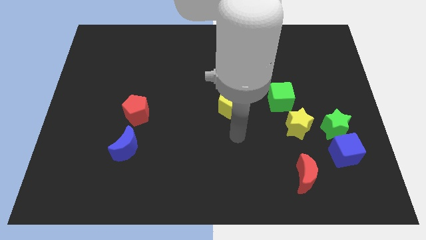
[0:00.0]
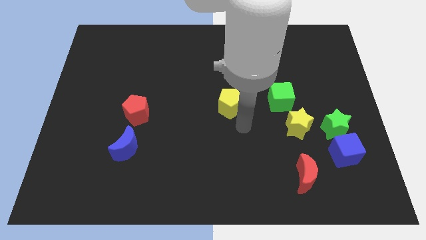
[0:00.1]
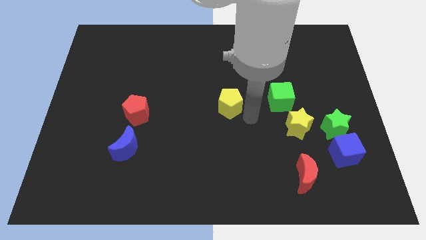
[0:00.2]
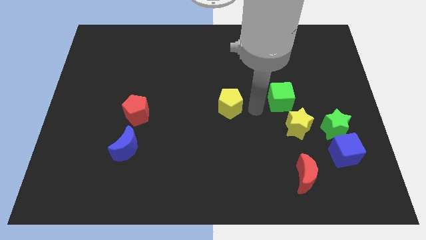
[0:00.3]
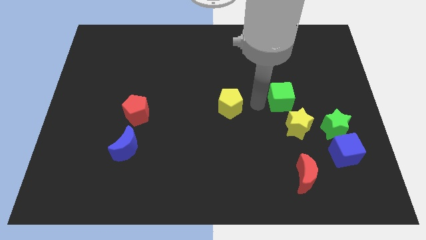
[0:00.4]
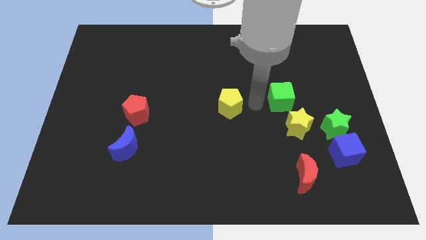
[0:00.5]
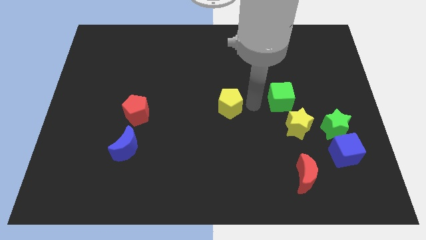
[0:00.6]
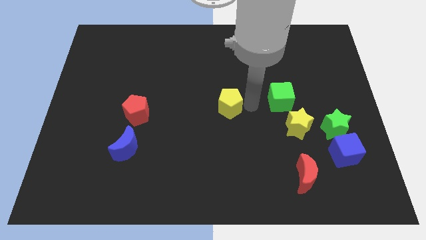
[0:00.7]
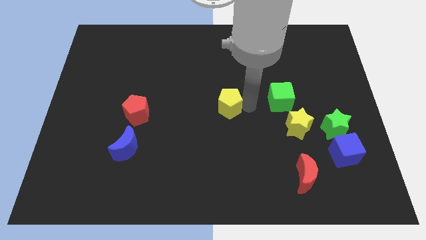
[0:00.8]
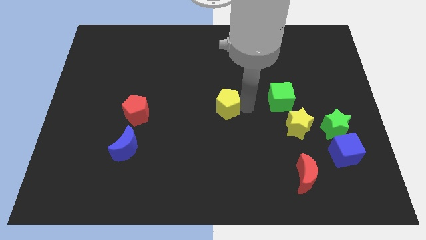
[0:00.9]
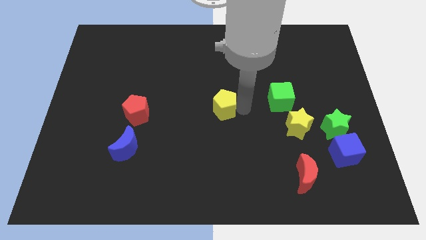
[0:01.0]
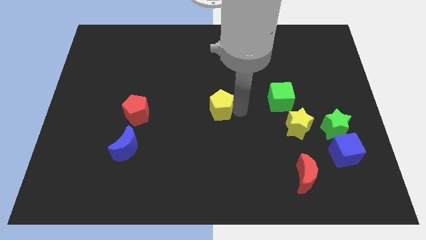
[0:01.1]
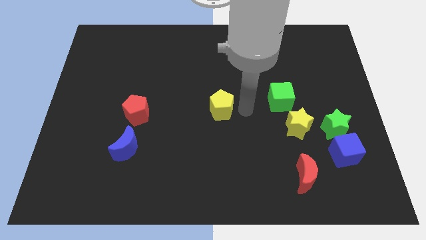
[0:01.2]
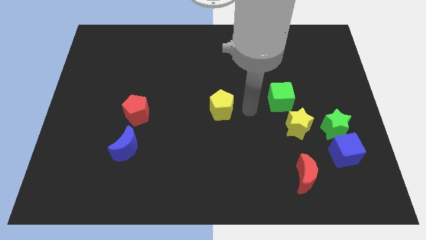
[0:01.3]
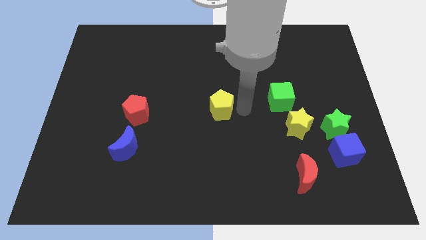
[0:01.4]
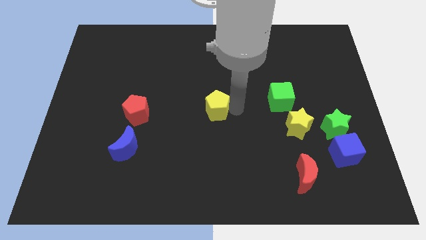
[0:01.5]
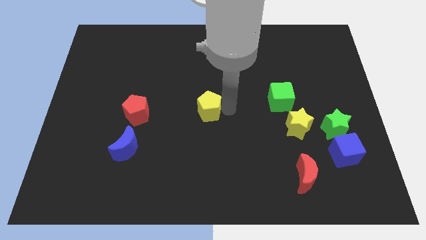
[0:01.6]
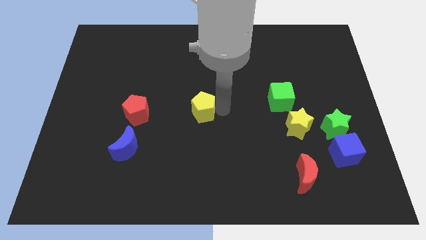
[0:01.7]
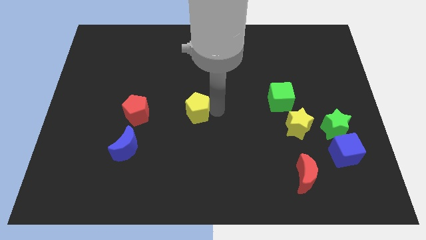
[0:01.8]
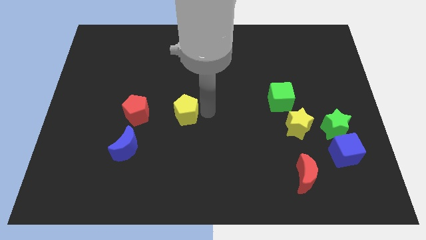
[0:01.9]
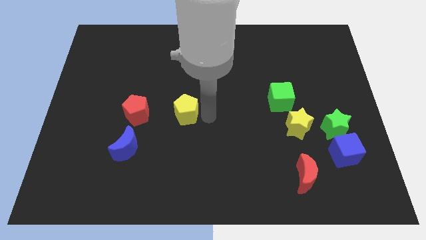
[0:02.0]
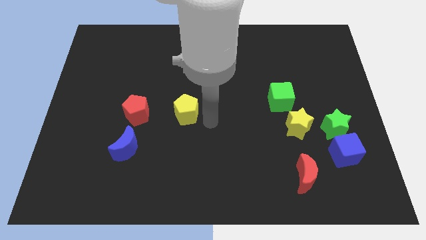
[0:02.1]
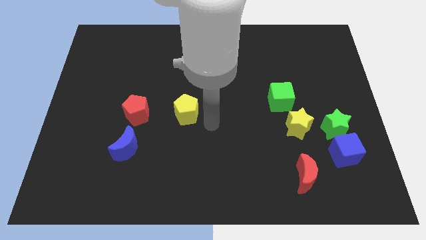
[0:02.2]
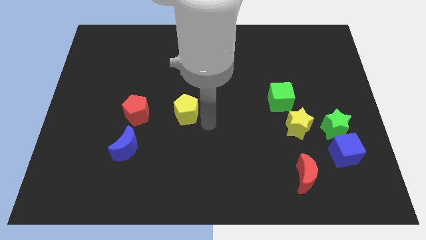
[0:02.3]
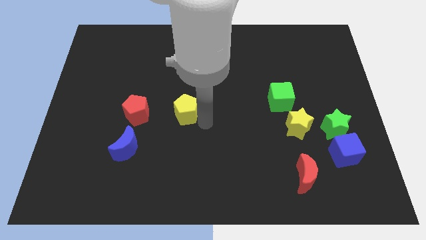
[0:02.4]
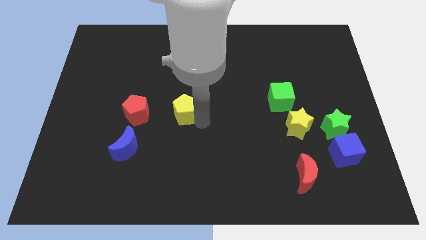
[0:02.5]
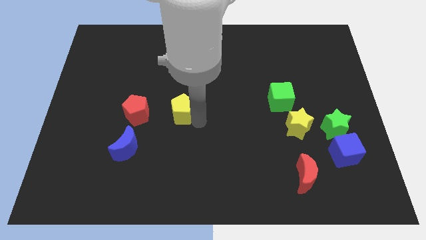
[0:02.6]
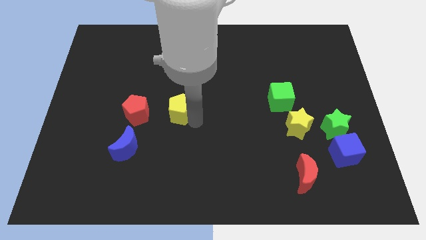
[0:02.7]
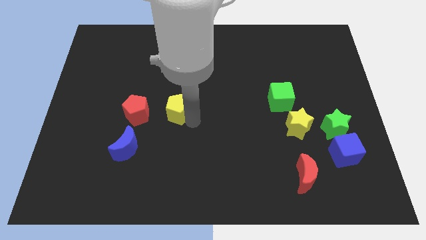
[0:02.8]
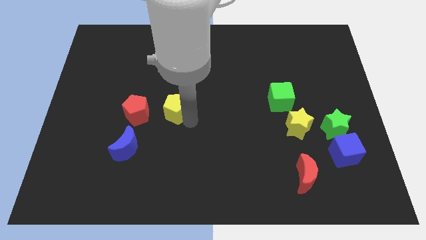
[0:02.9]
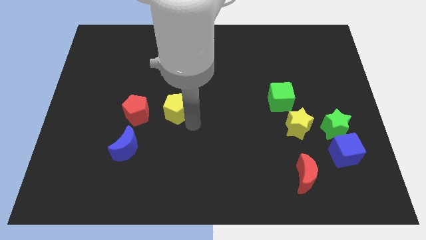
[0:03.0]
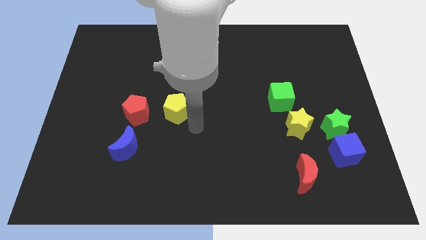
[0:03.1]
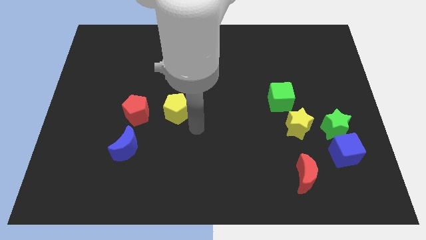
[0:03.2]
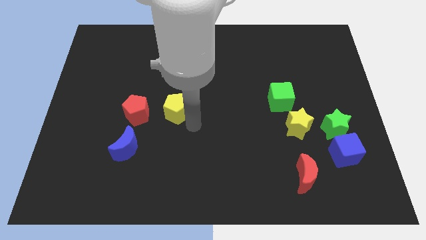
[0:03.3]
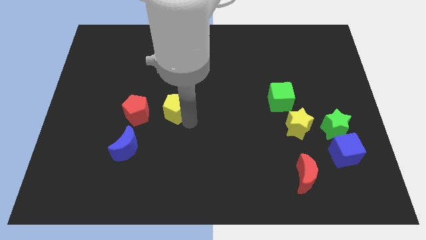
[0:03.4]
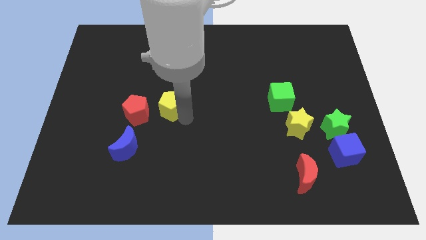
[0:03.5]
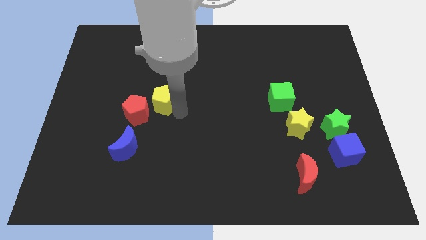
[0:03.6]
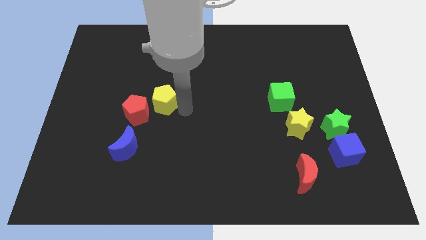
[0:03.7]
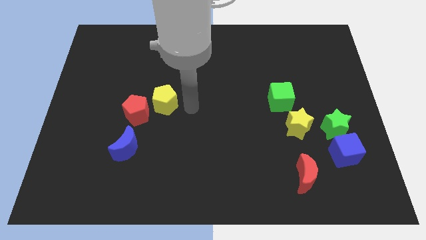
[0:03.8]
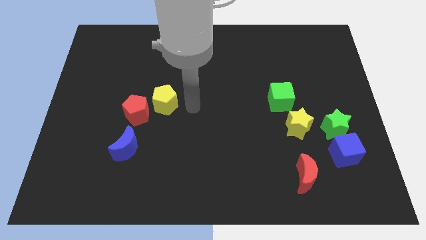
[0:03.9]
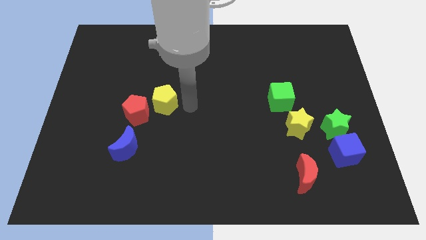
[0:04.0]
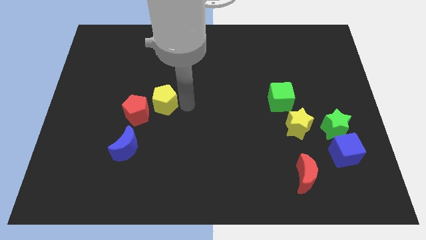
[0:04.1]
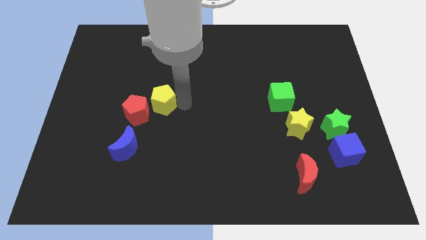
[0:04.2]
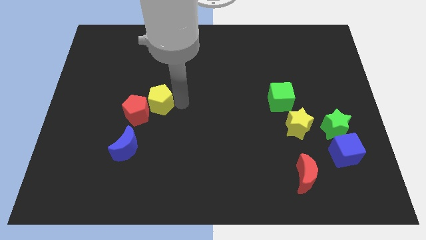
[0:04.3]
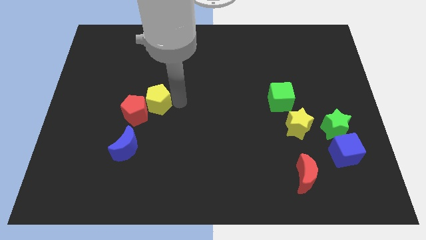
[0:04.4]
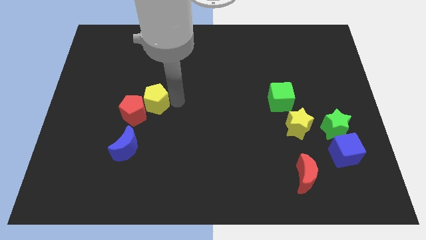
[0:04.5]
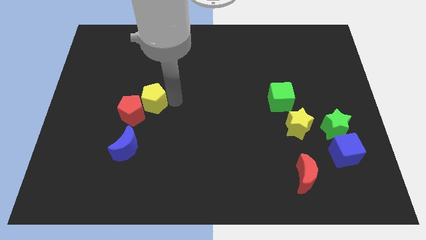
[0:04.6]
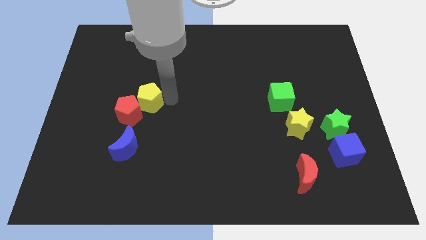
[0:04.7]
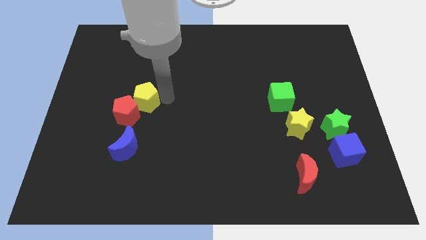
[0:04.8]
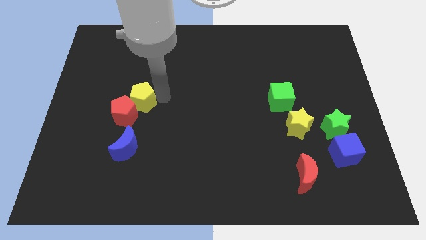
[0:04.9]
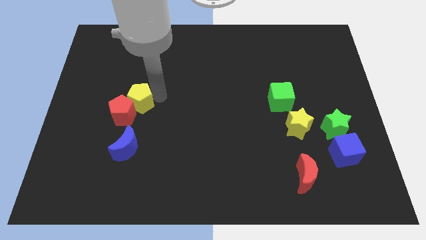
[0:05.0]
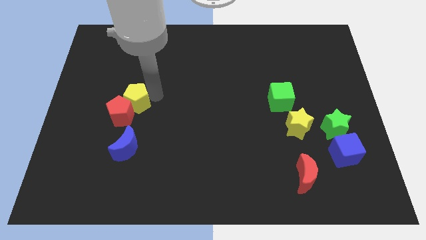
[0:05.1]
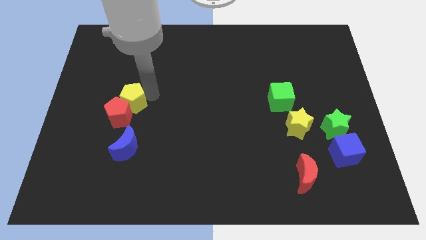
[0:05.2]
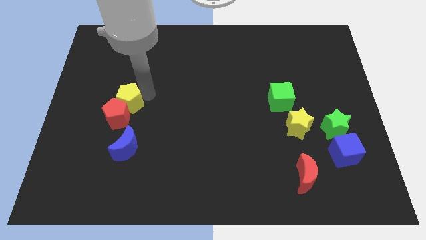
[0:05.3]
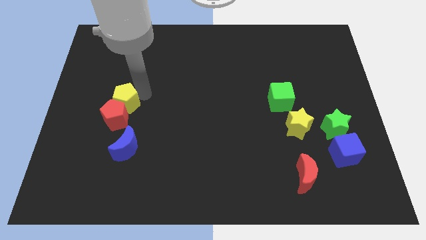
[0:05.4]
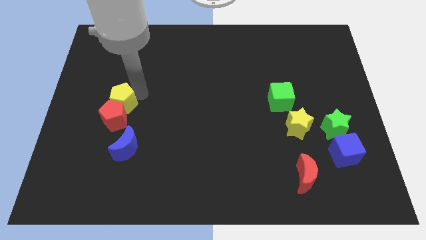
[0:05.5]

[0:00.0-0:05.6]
put the yellow pentagon diagonally up and to the left of the red pentagon

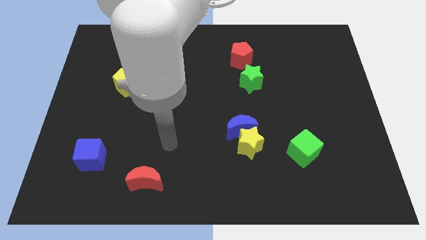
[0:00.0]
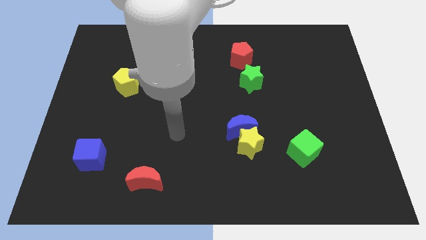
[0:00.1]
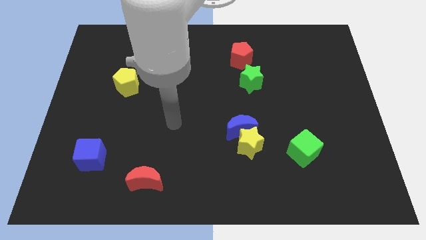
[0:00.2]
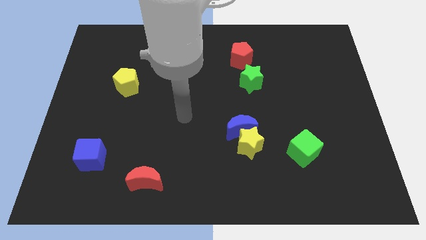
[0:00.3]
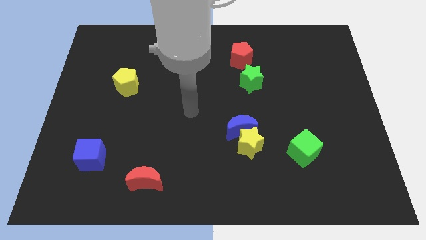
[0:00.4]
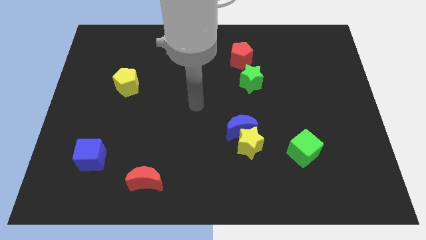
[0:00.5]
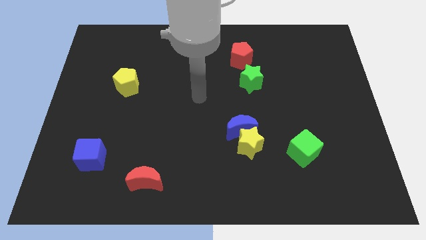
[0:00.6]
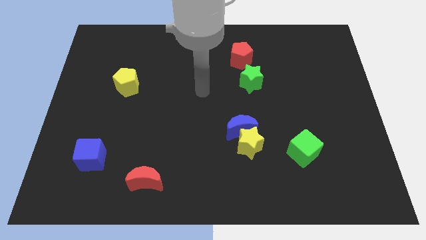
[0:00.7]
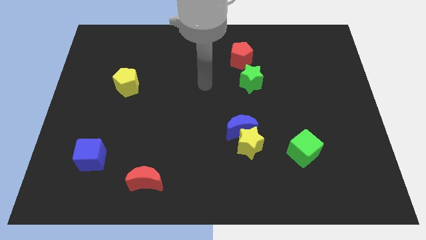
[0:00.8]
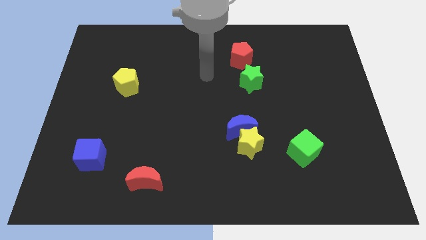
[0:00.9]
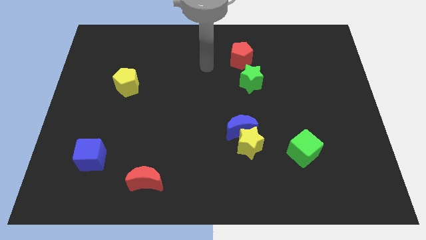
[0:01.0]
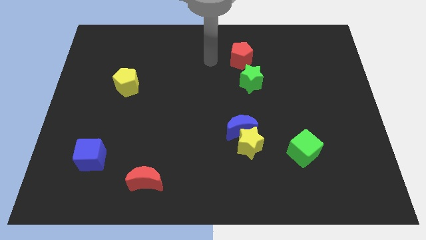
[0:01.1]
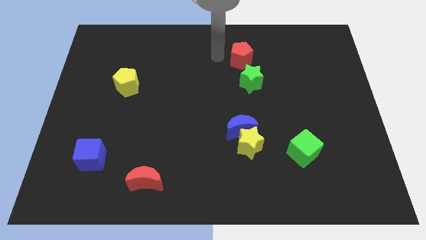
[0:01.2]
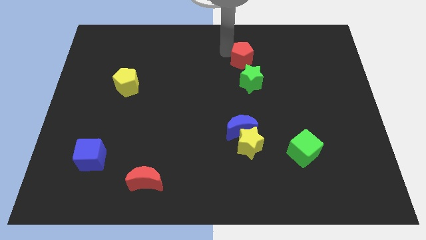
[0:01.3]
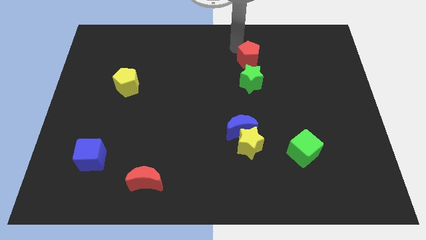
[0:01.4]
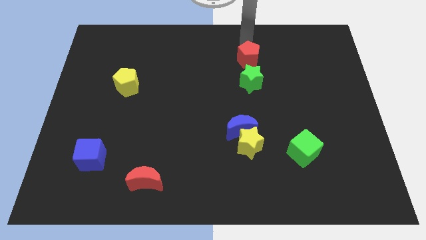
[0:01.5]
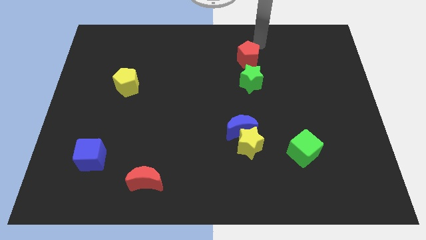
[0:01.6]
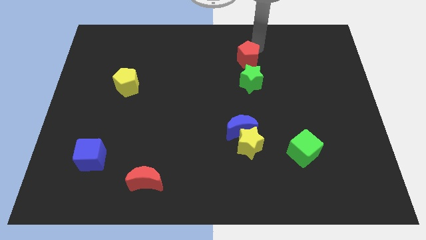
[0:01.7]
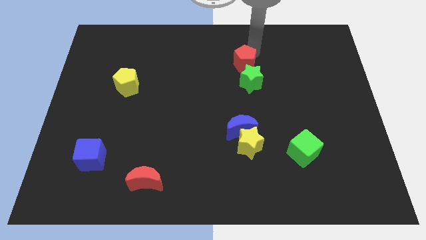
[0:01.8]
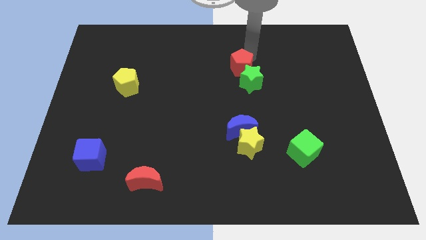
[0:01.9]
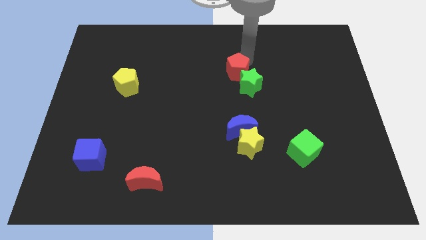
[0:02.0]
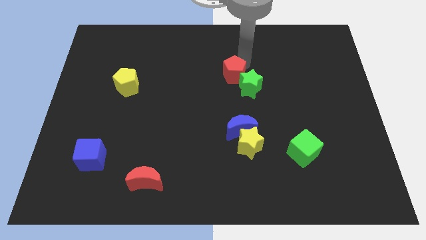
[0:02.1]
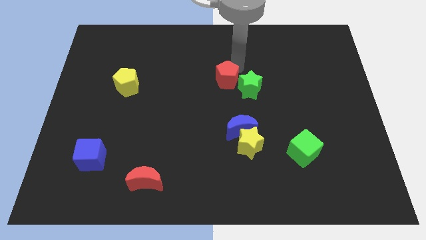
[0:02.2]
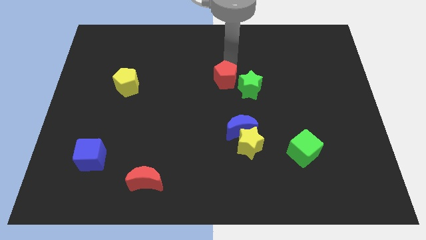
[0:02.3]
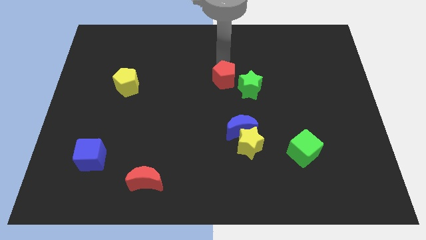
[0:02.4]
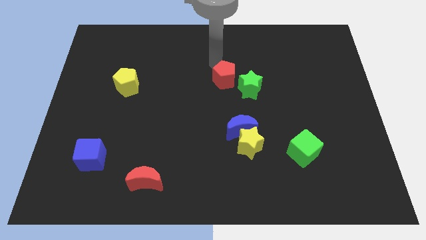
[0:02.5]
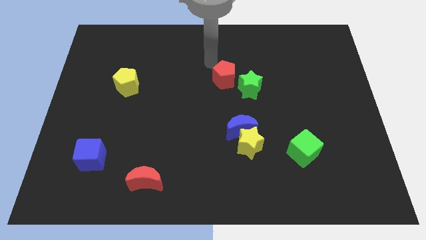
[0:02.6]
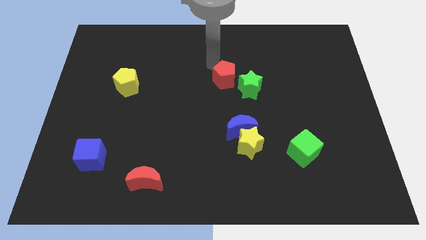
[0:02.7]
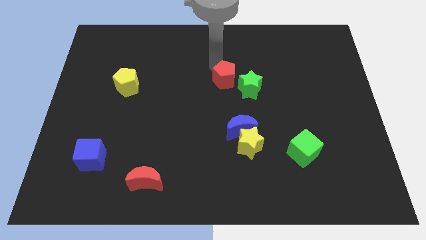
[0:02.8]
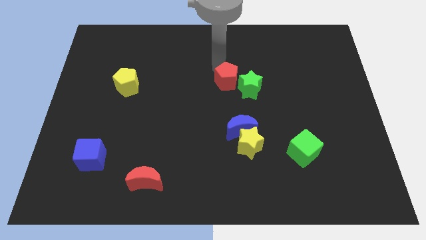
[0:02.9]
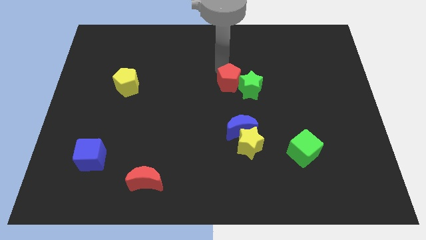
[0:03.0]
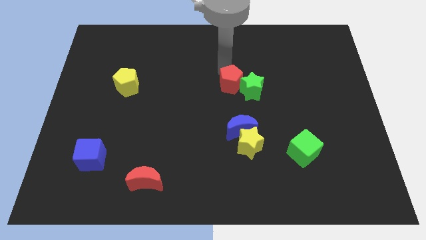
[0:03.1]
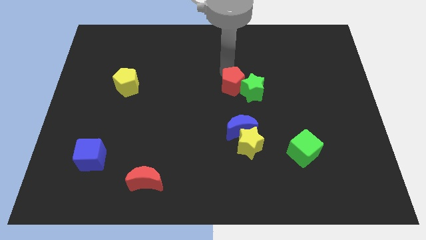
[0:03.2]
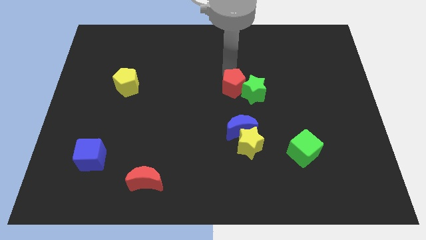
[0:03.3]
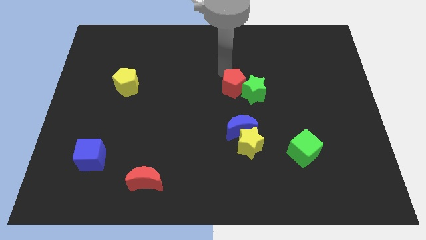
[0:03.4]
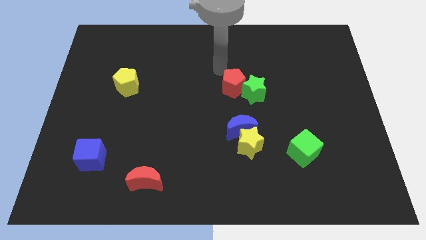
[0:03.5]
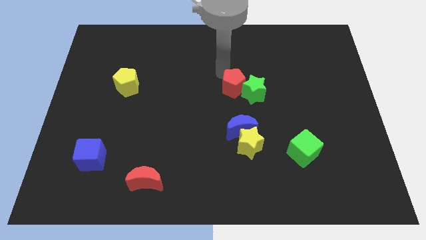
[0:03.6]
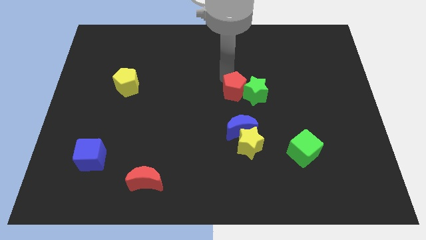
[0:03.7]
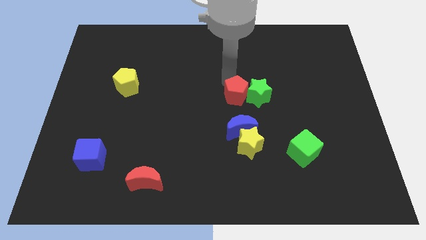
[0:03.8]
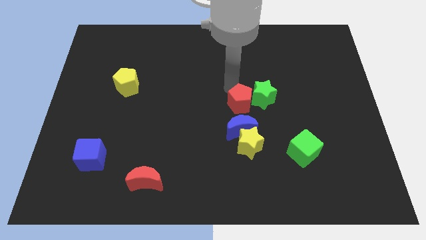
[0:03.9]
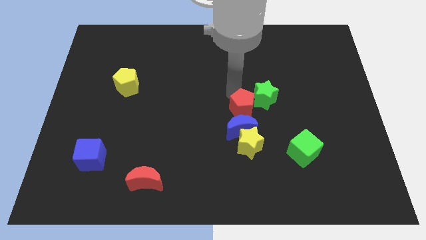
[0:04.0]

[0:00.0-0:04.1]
move the red pentagon to the top right side of the blue moon
